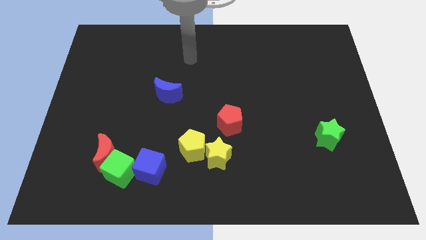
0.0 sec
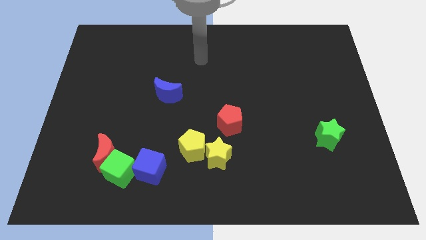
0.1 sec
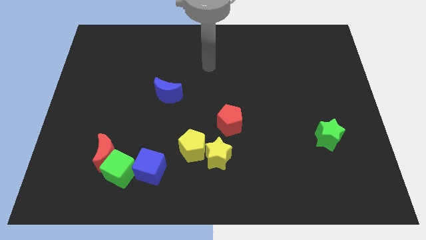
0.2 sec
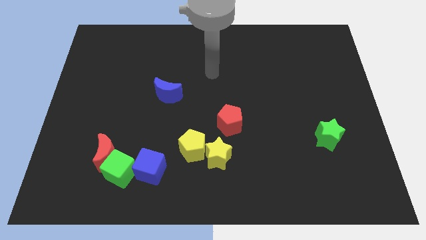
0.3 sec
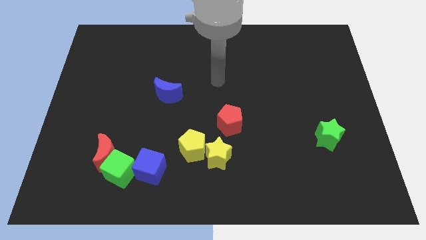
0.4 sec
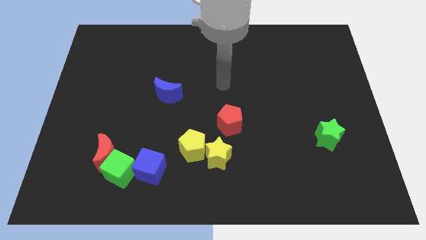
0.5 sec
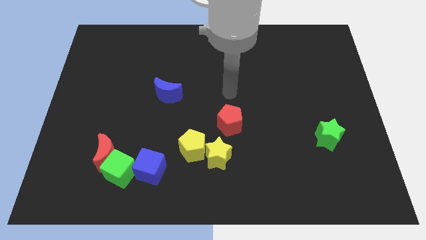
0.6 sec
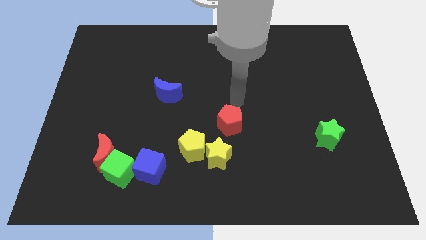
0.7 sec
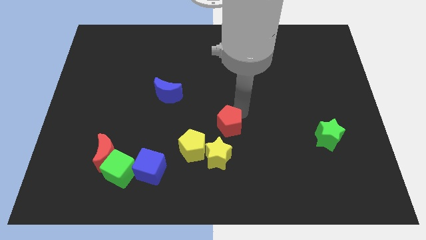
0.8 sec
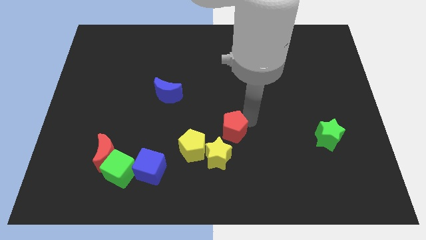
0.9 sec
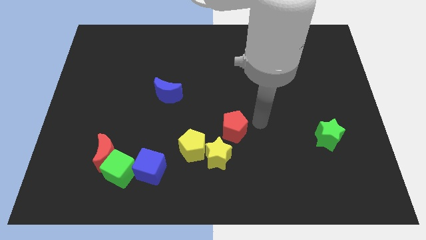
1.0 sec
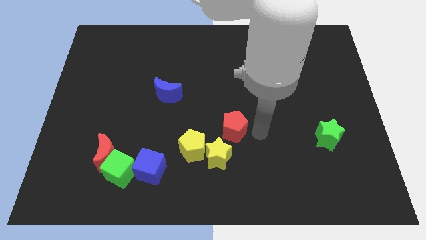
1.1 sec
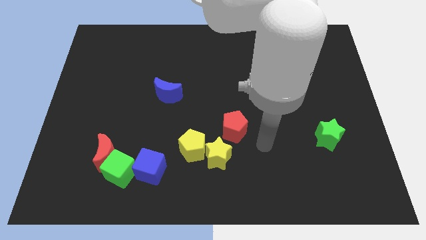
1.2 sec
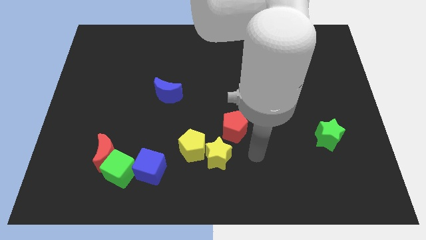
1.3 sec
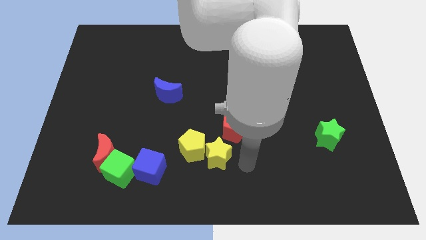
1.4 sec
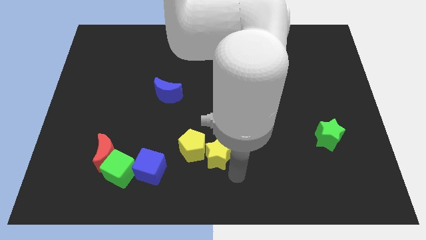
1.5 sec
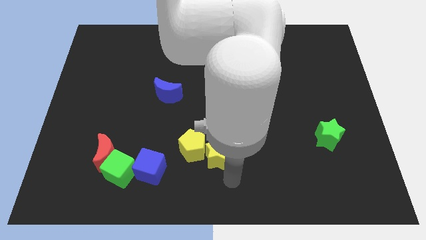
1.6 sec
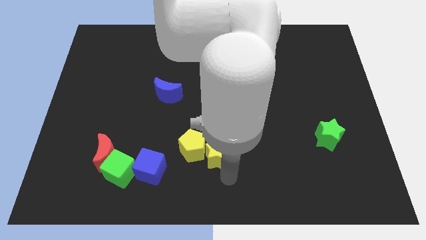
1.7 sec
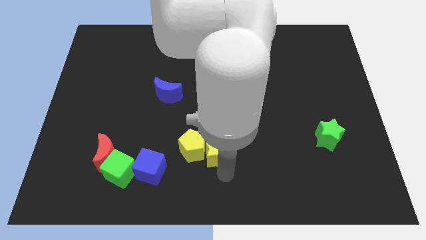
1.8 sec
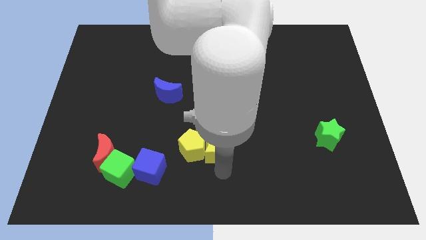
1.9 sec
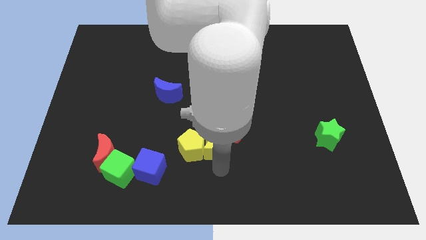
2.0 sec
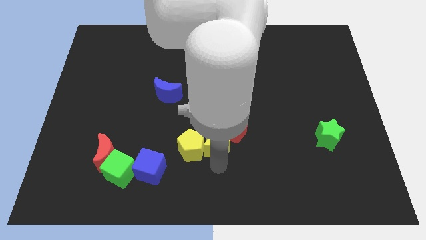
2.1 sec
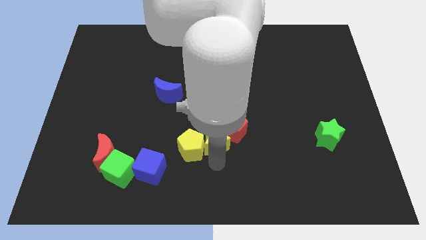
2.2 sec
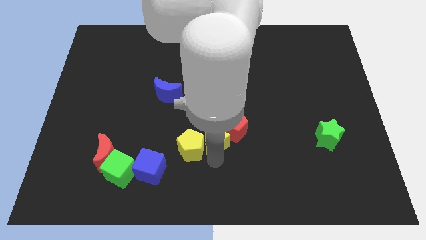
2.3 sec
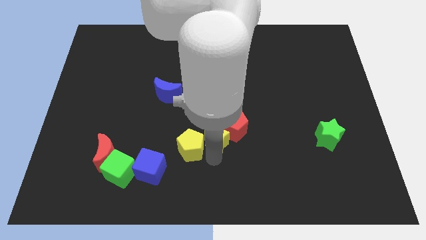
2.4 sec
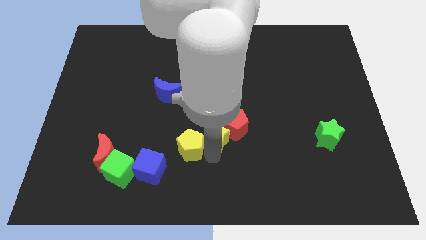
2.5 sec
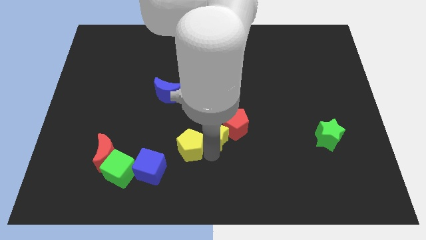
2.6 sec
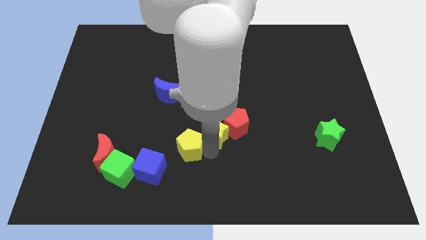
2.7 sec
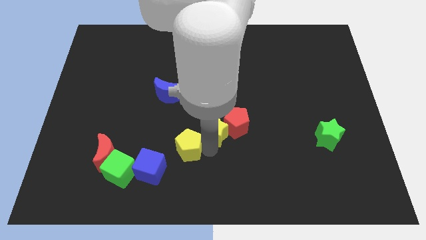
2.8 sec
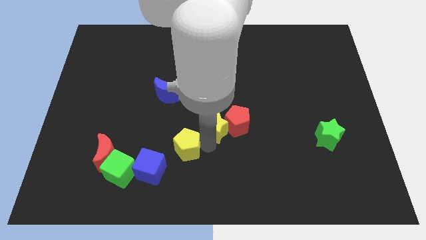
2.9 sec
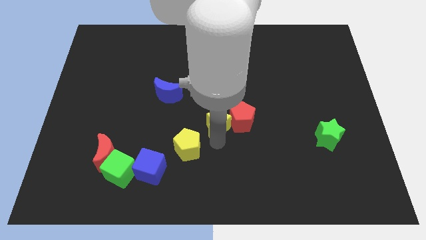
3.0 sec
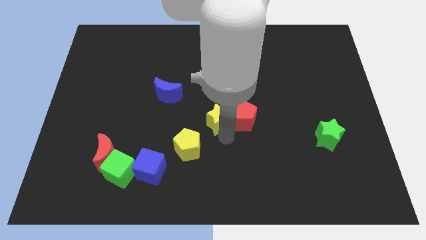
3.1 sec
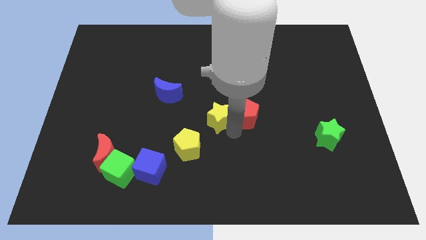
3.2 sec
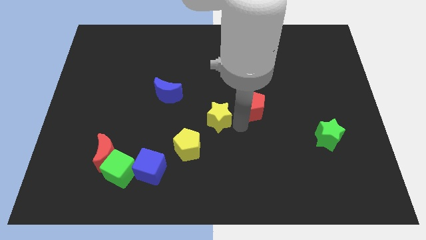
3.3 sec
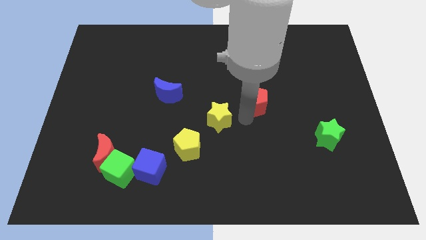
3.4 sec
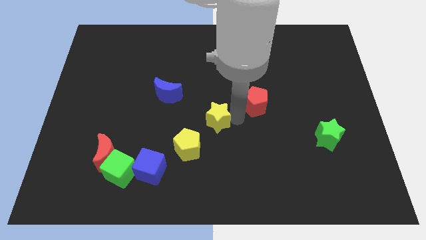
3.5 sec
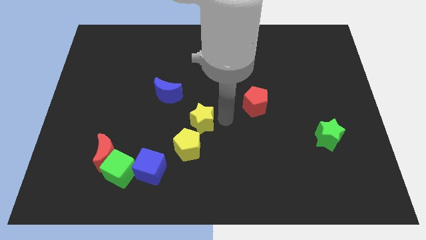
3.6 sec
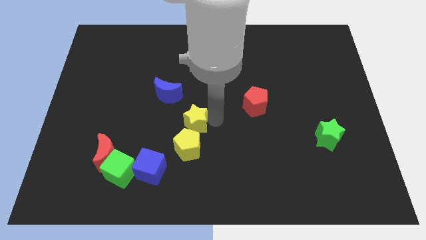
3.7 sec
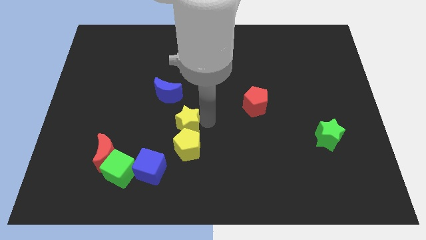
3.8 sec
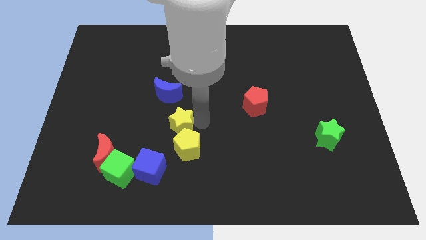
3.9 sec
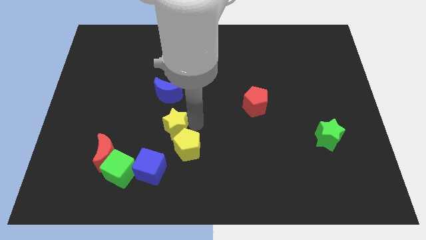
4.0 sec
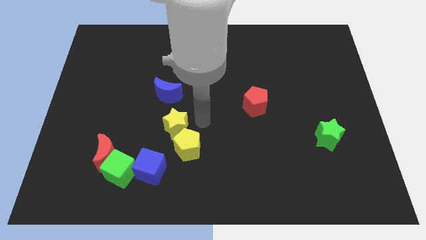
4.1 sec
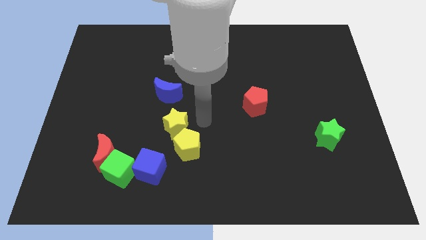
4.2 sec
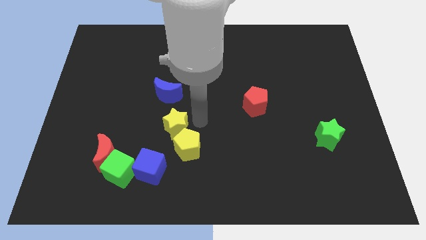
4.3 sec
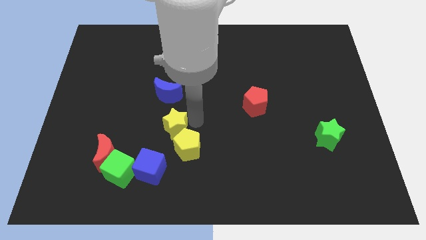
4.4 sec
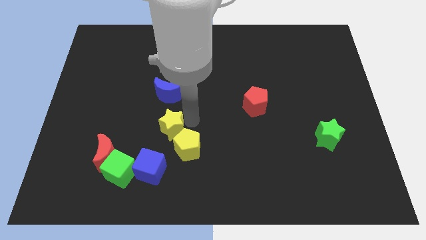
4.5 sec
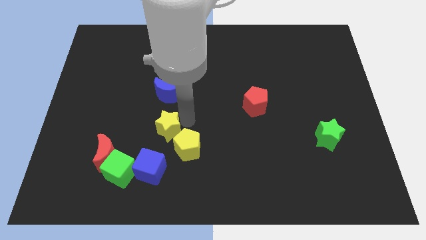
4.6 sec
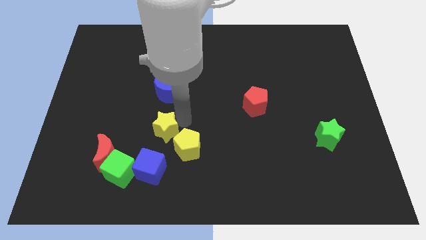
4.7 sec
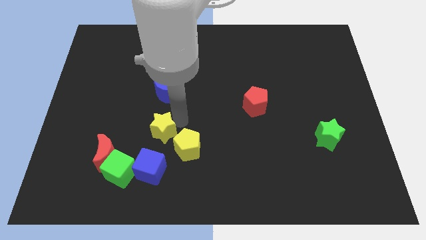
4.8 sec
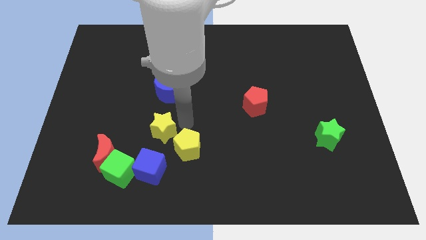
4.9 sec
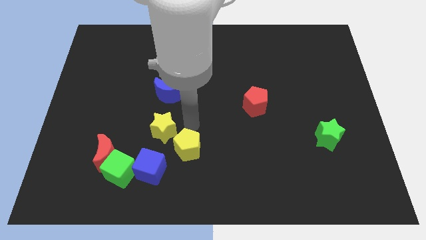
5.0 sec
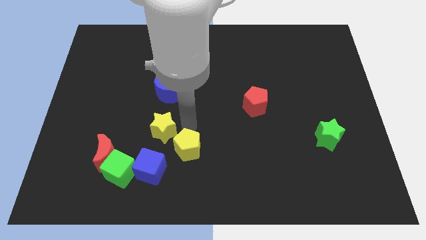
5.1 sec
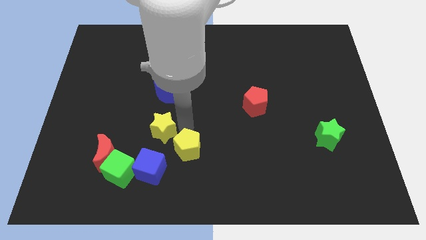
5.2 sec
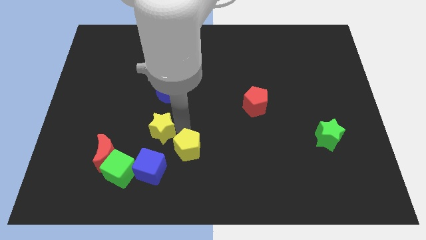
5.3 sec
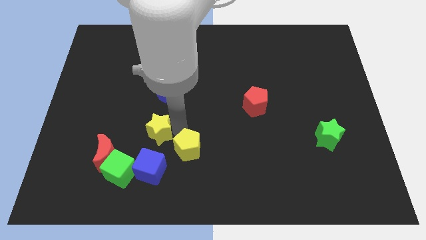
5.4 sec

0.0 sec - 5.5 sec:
push the yellow star to the top right of the red moon

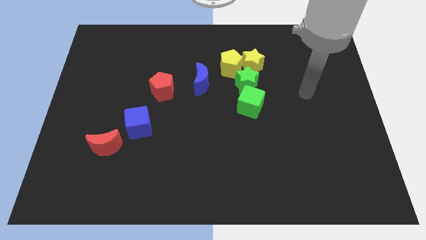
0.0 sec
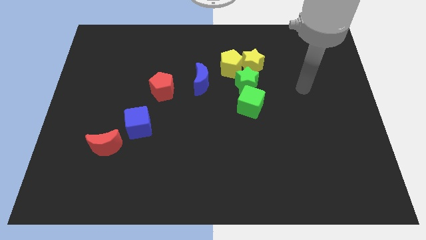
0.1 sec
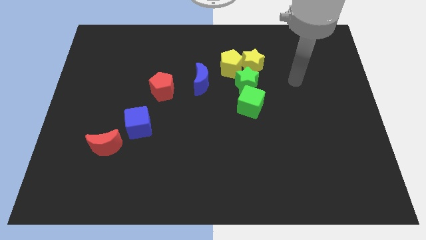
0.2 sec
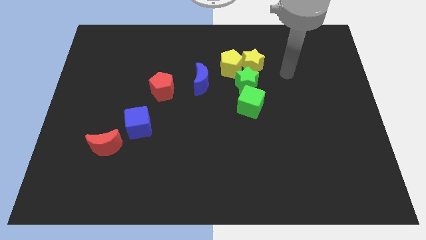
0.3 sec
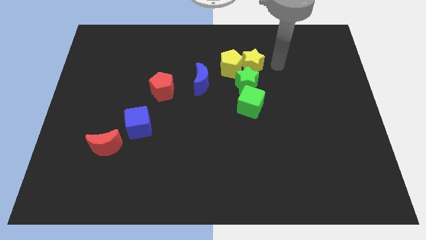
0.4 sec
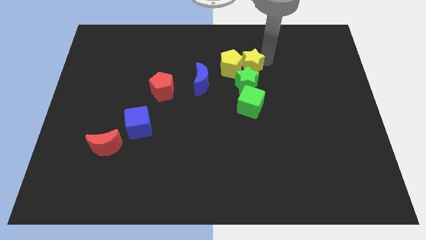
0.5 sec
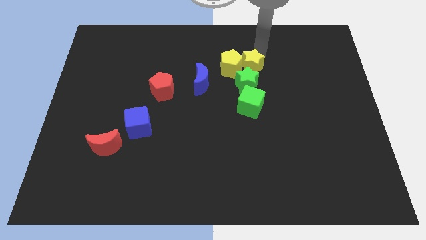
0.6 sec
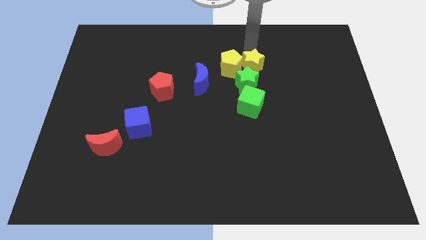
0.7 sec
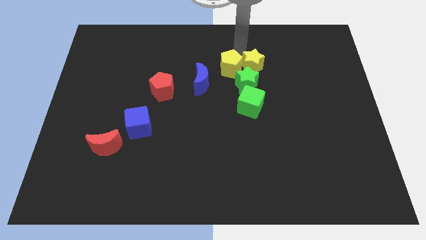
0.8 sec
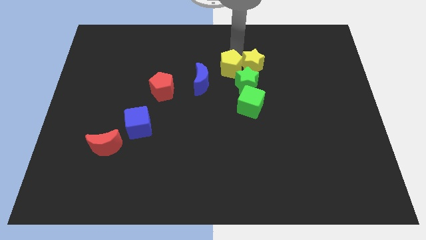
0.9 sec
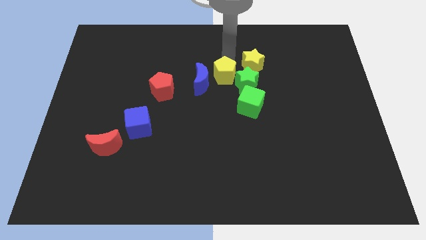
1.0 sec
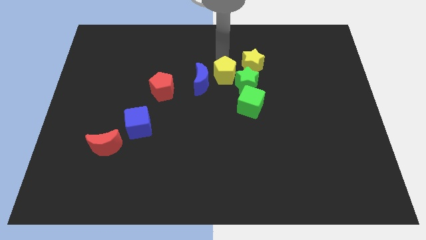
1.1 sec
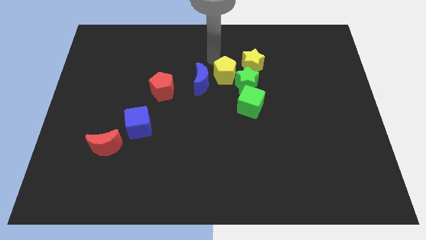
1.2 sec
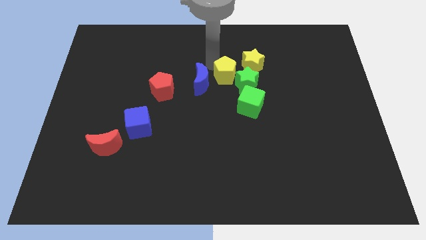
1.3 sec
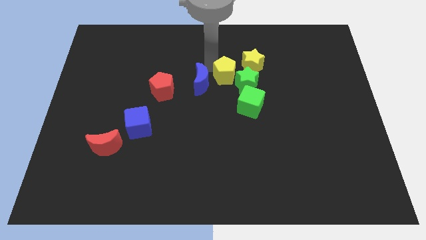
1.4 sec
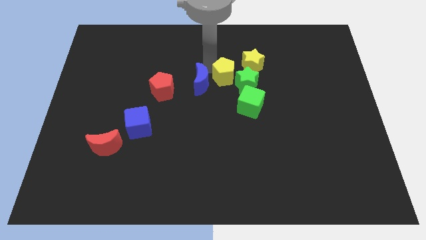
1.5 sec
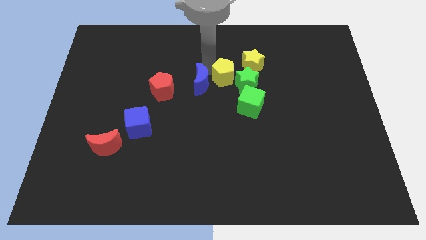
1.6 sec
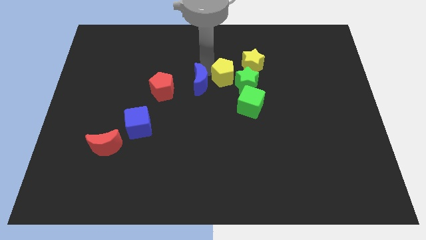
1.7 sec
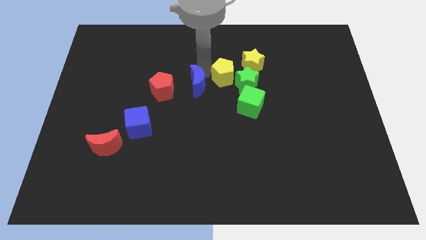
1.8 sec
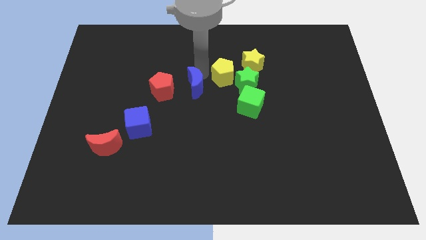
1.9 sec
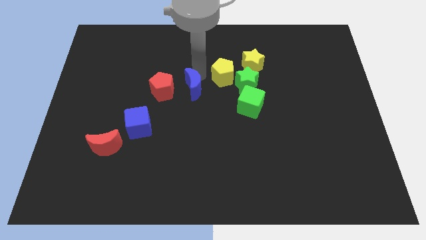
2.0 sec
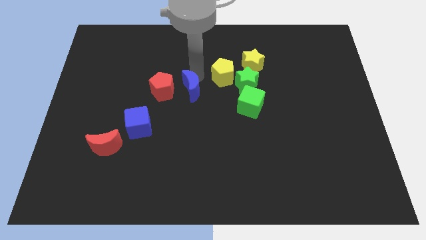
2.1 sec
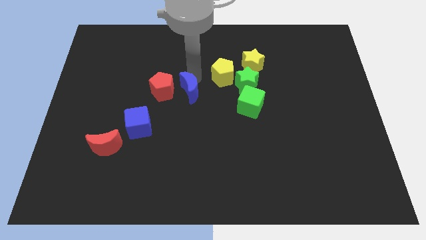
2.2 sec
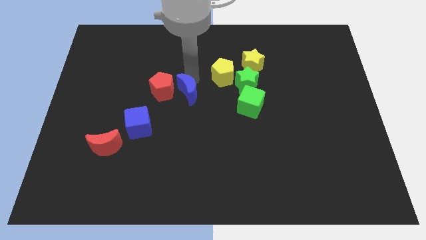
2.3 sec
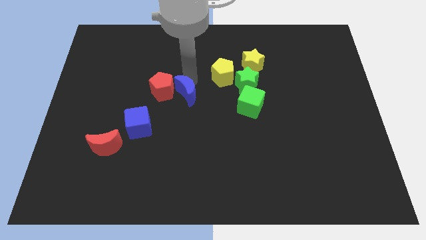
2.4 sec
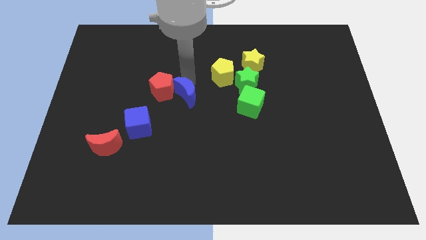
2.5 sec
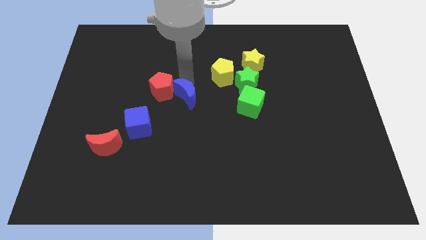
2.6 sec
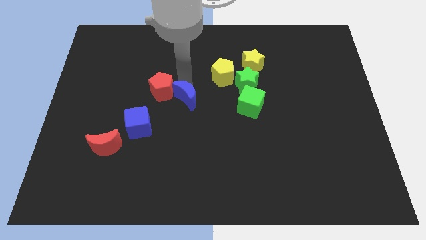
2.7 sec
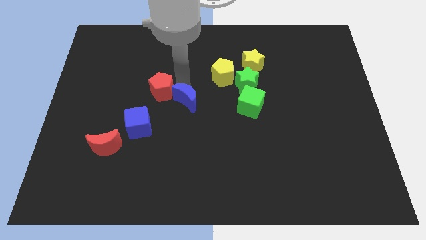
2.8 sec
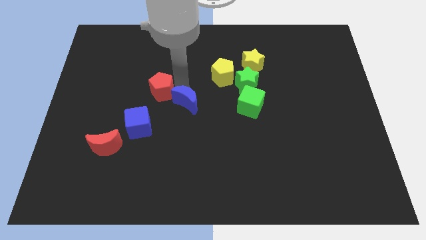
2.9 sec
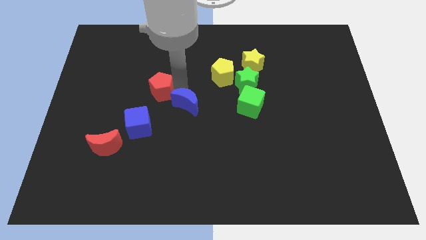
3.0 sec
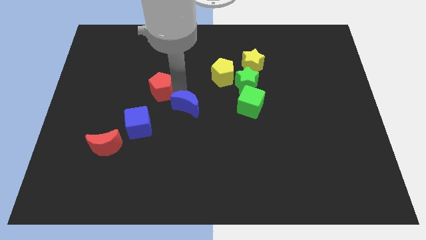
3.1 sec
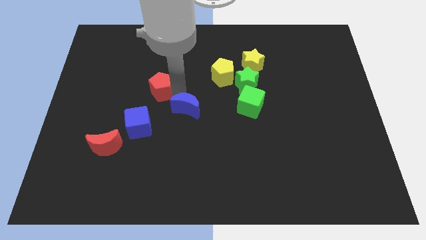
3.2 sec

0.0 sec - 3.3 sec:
push the blue moon just right of the blue cube
